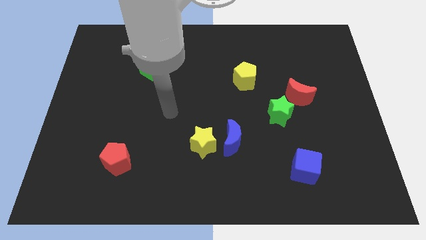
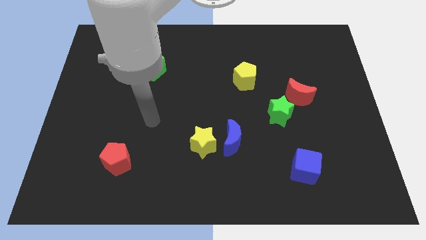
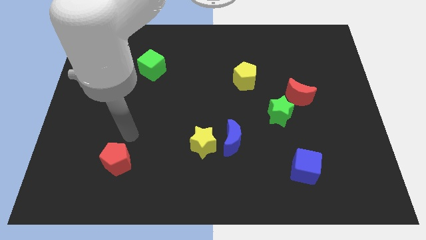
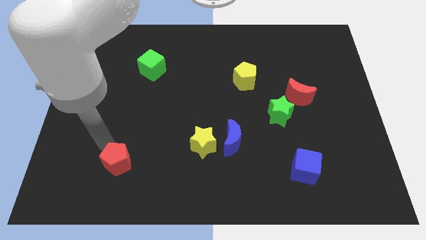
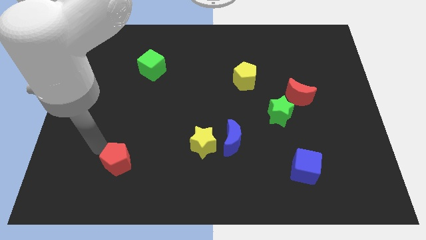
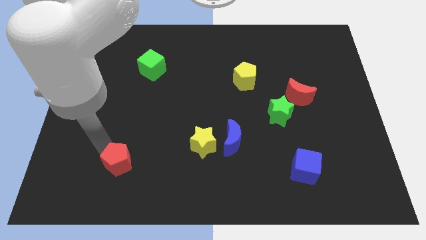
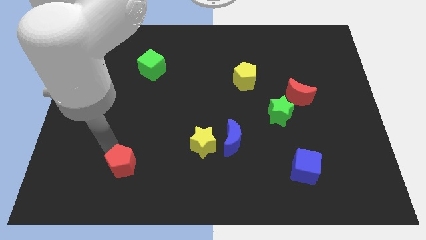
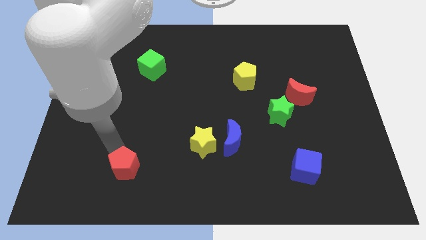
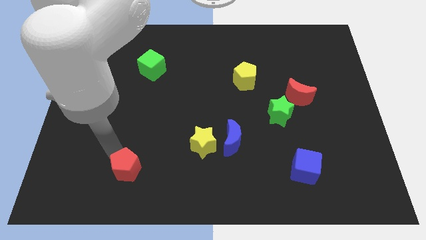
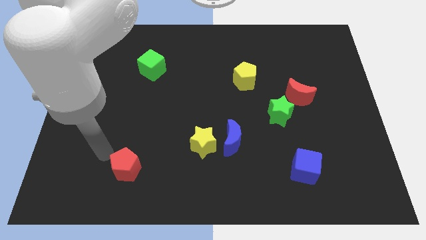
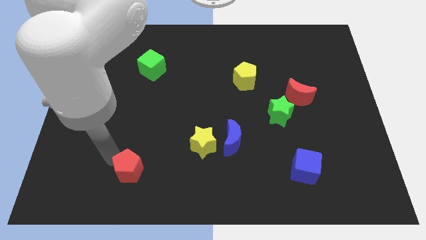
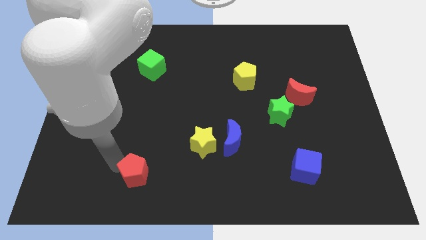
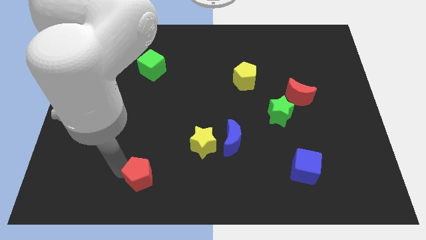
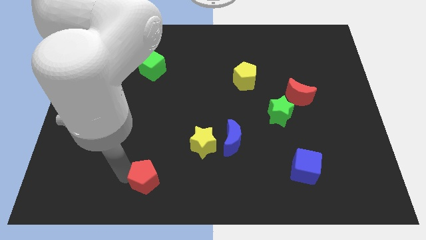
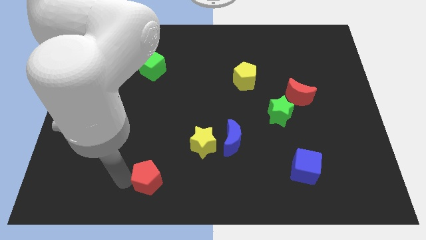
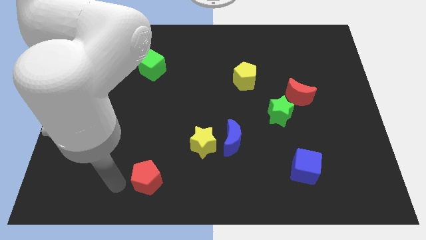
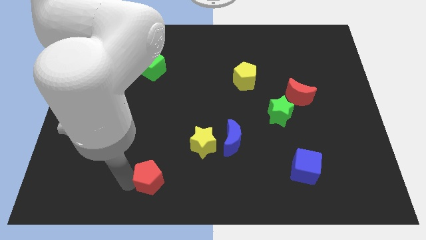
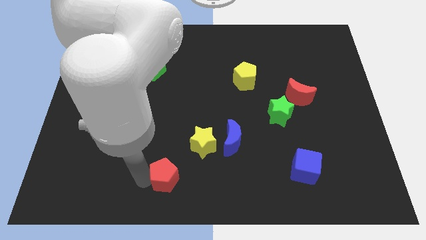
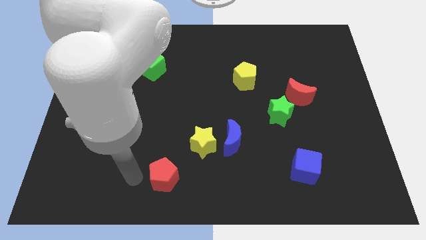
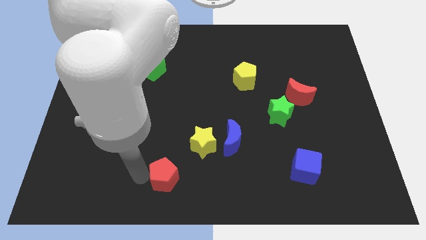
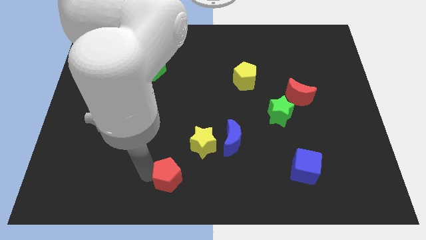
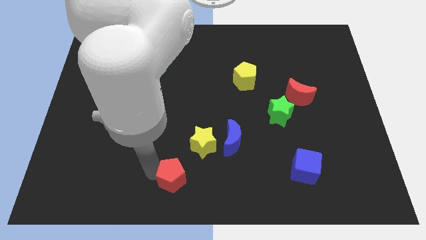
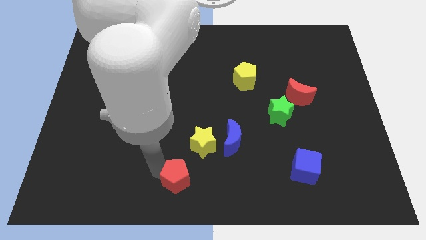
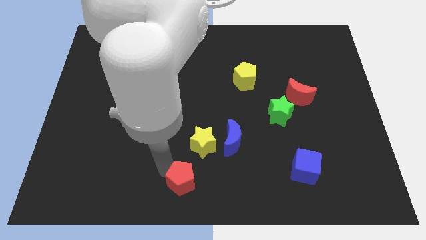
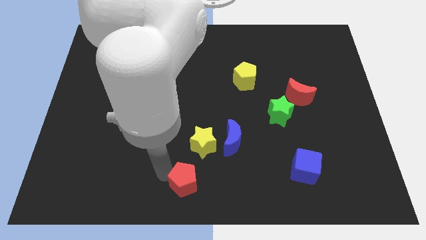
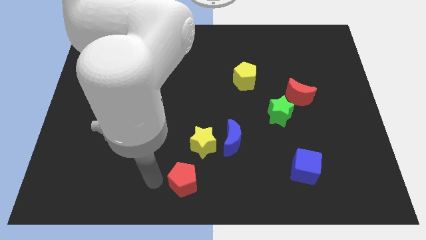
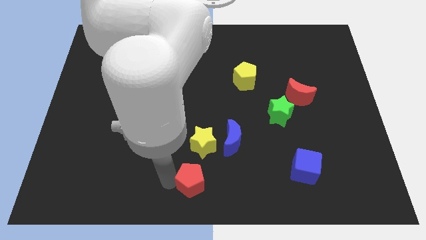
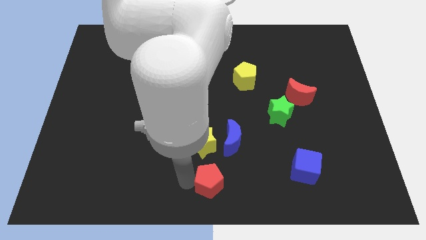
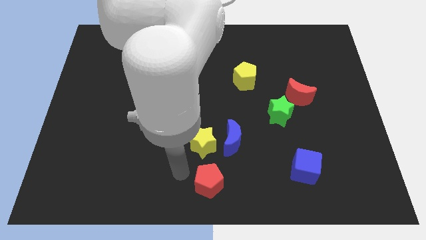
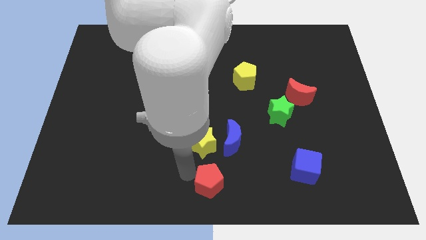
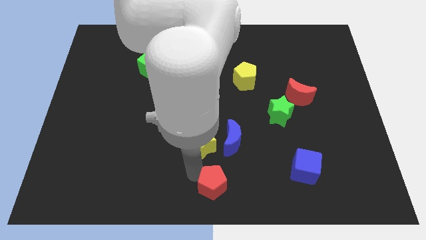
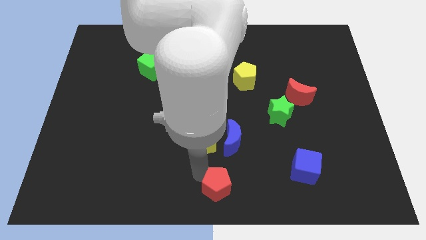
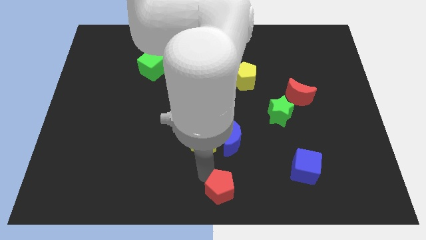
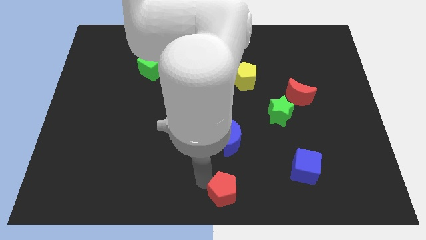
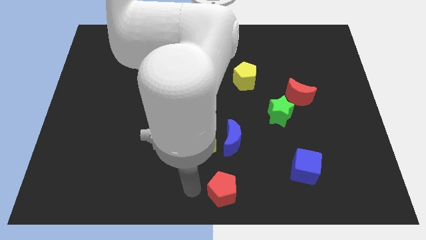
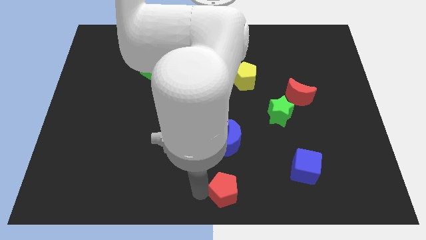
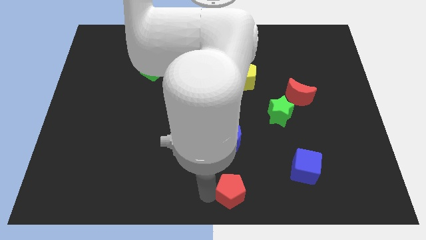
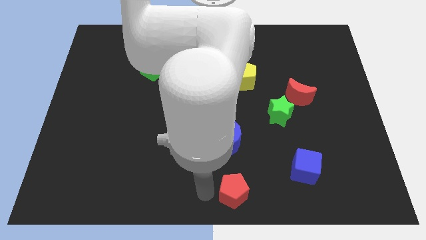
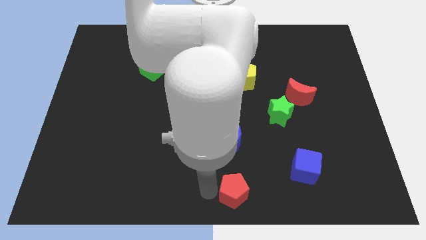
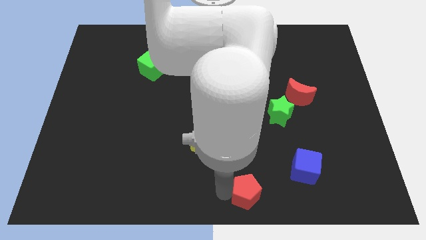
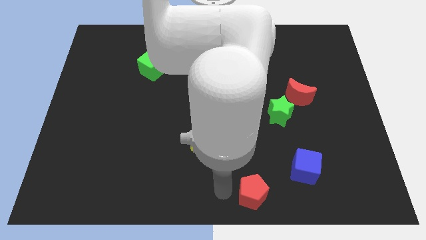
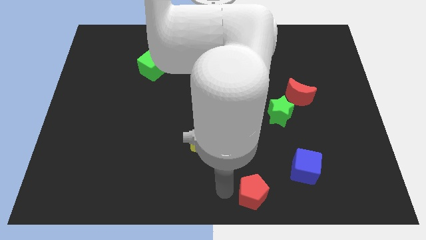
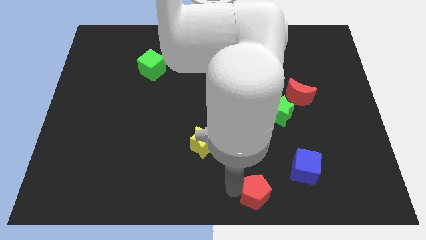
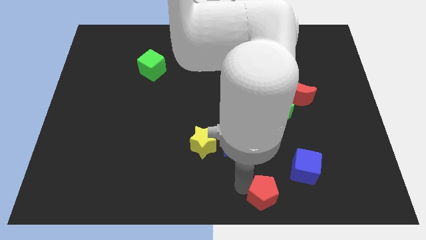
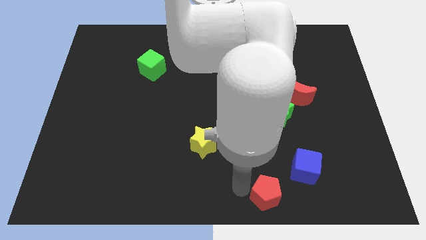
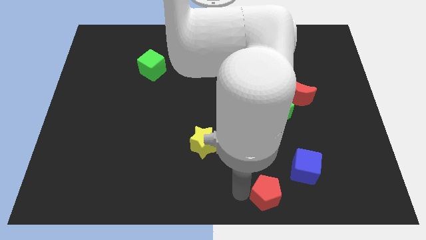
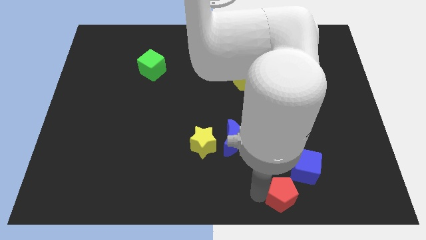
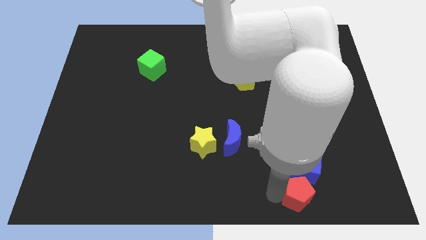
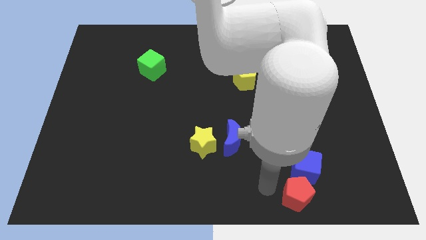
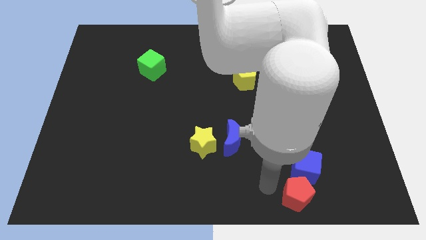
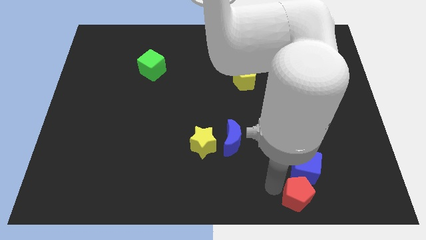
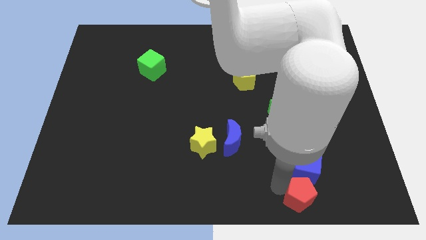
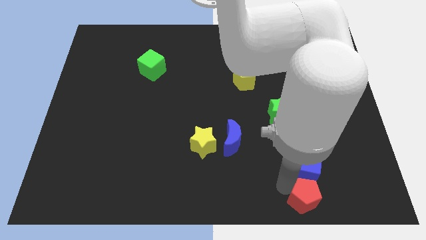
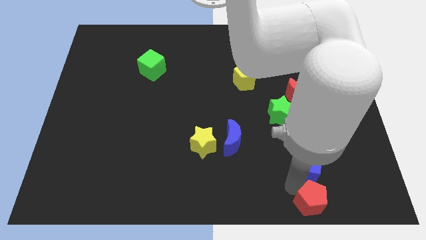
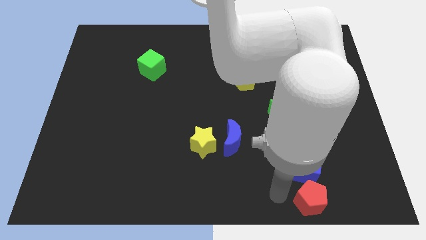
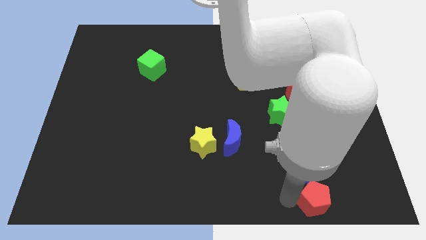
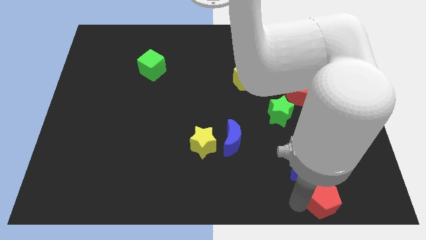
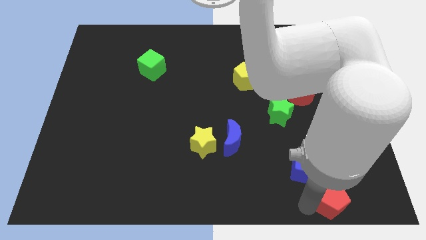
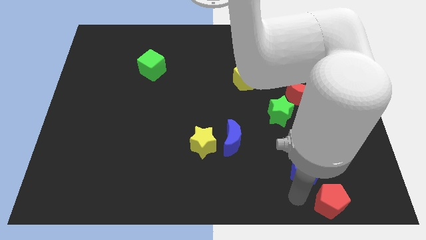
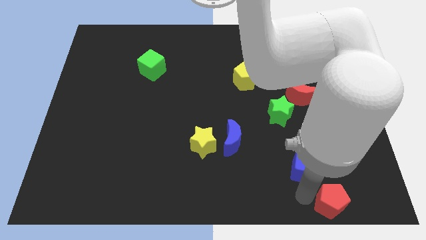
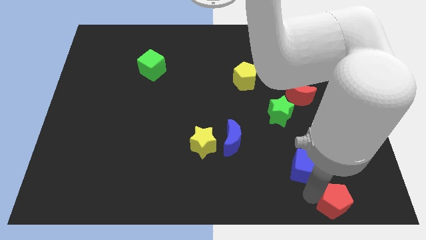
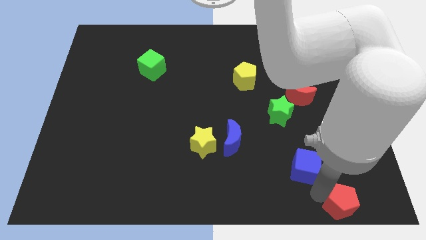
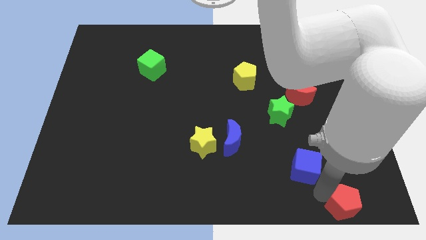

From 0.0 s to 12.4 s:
push the red pentagon to the bottom right
